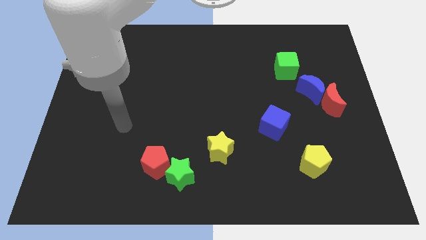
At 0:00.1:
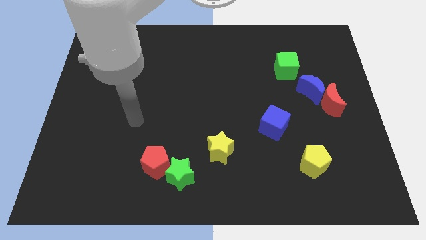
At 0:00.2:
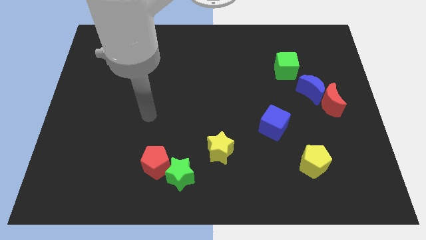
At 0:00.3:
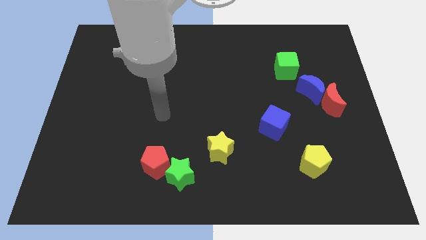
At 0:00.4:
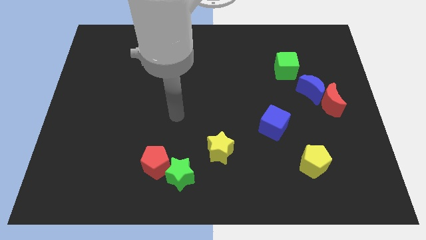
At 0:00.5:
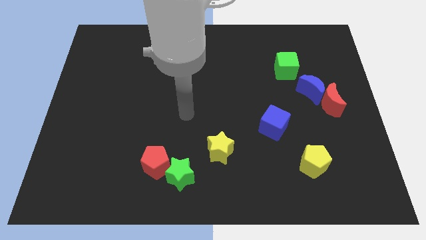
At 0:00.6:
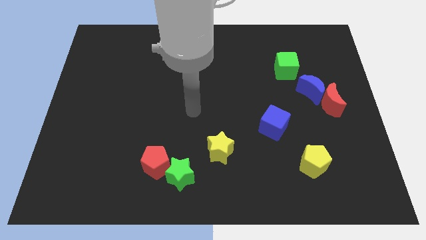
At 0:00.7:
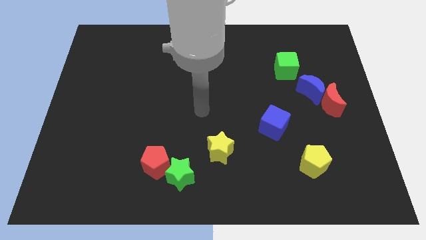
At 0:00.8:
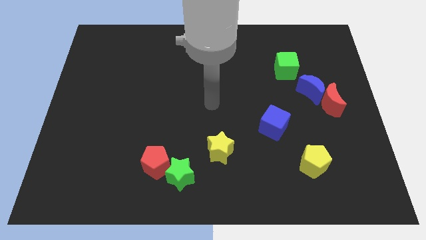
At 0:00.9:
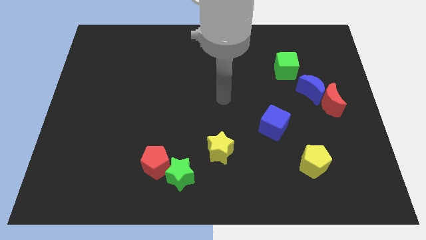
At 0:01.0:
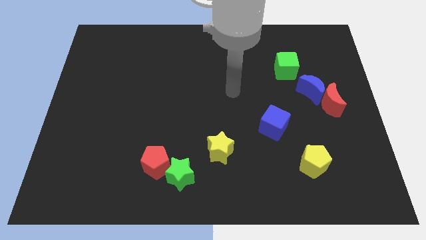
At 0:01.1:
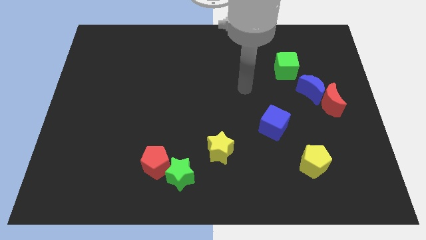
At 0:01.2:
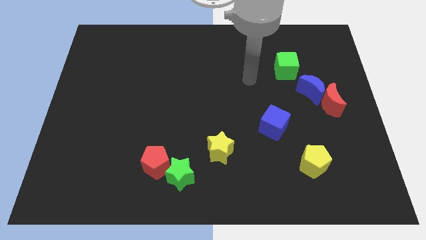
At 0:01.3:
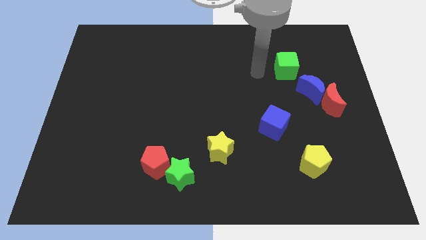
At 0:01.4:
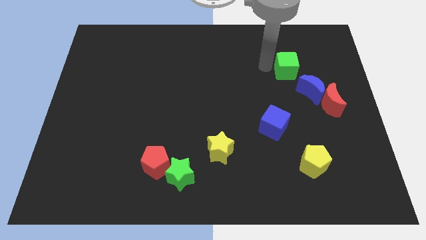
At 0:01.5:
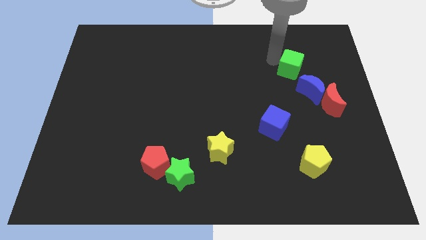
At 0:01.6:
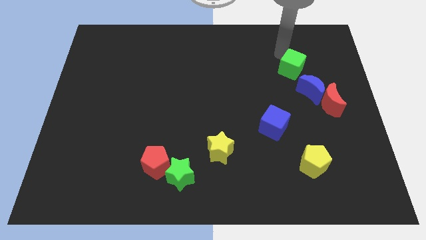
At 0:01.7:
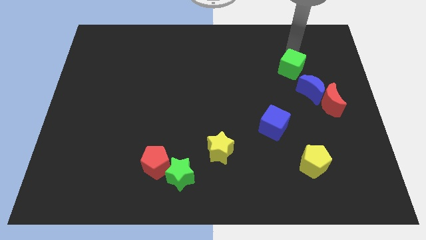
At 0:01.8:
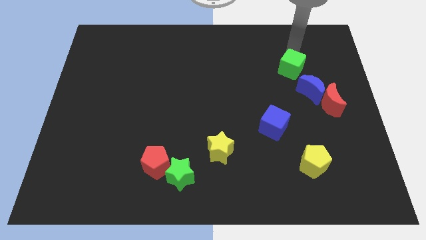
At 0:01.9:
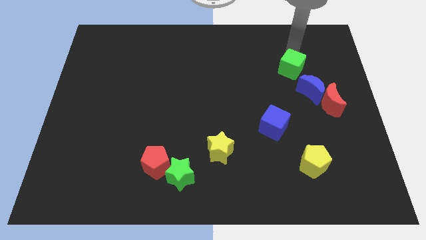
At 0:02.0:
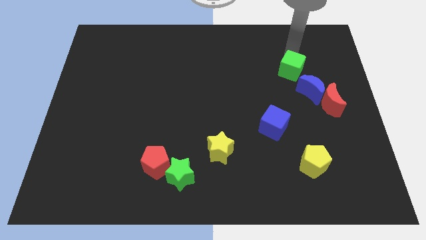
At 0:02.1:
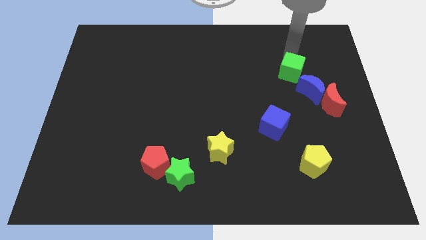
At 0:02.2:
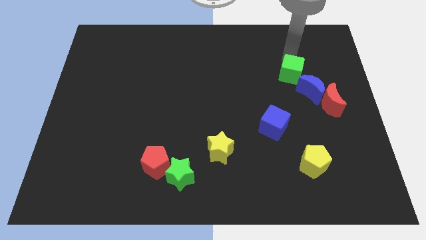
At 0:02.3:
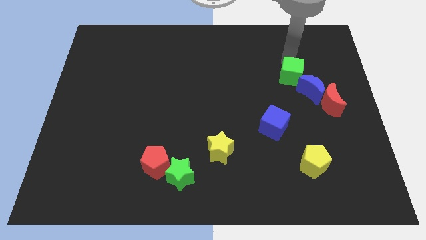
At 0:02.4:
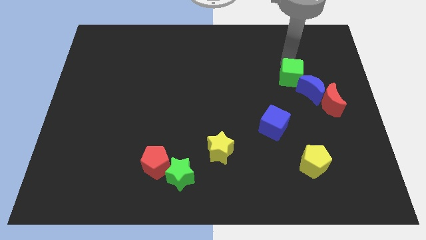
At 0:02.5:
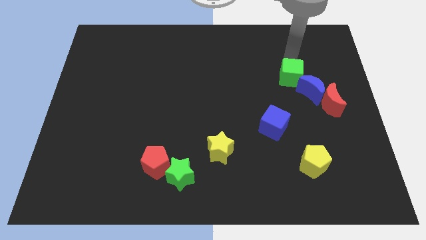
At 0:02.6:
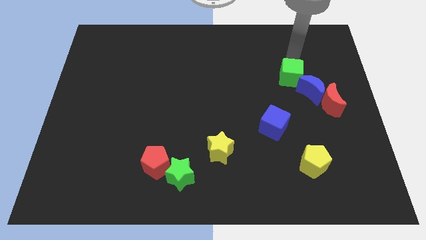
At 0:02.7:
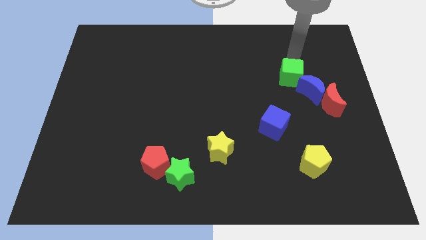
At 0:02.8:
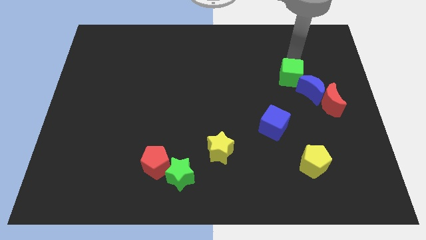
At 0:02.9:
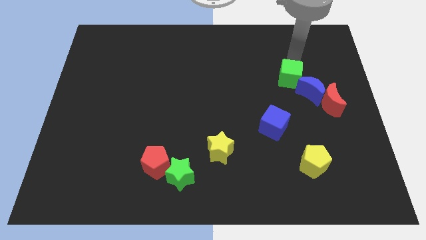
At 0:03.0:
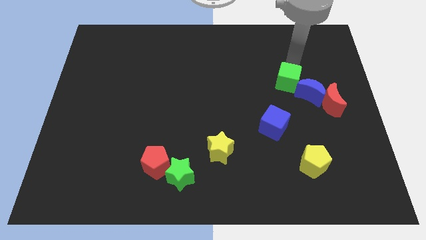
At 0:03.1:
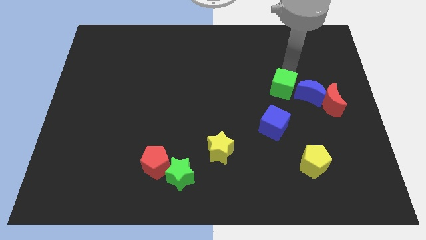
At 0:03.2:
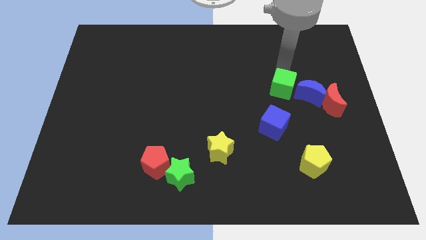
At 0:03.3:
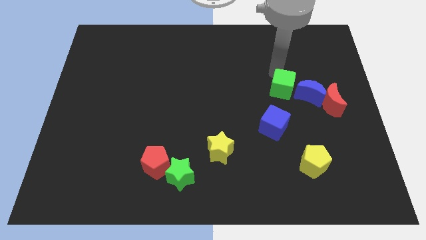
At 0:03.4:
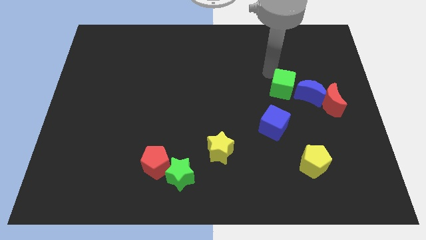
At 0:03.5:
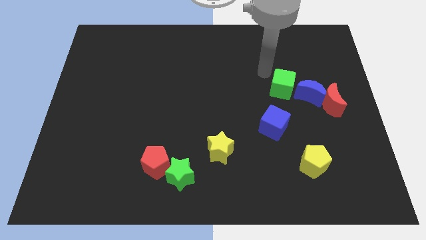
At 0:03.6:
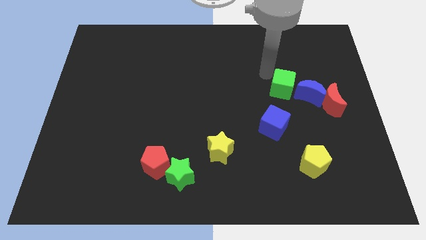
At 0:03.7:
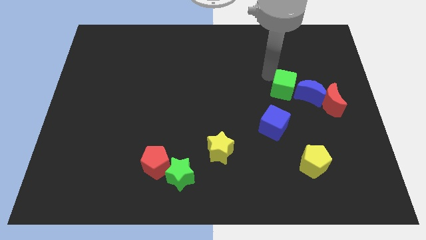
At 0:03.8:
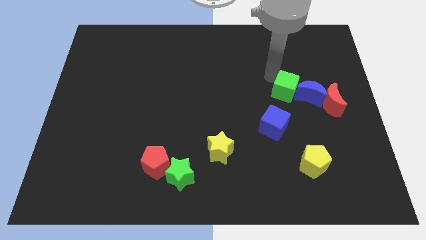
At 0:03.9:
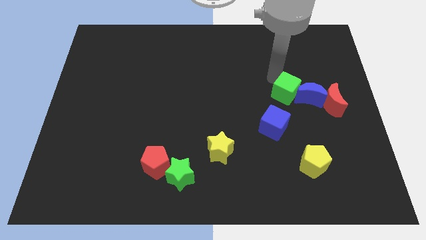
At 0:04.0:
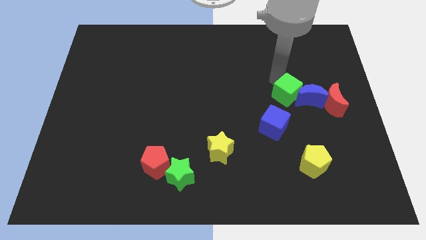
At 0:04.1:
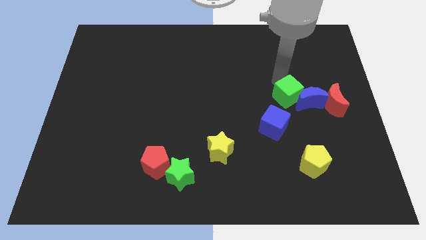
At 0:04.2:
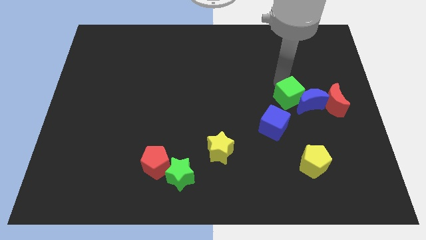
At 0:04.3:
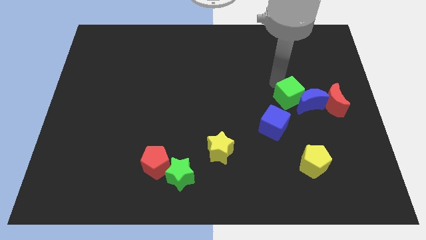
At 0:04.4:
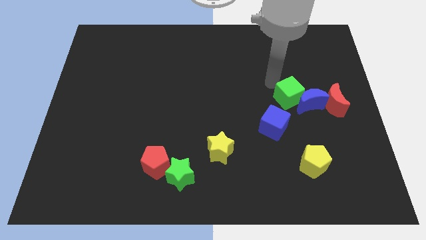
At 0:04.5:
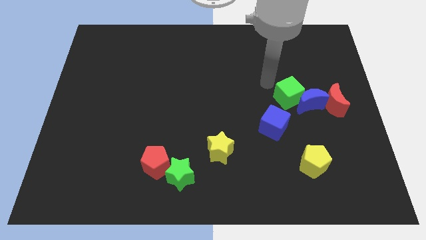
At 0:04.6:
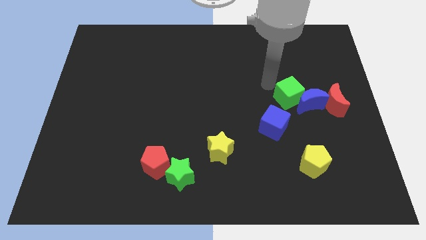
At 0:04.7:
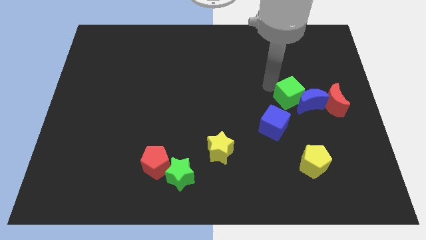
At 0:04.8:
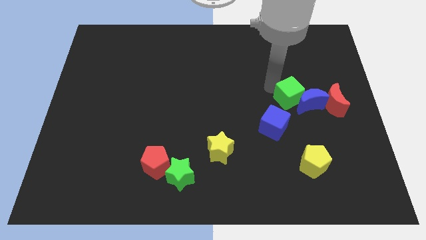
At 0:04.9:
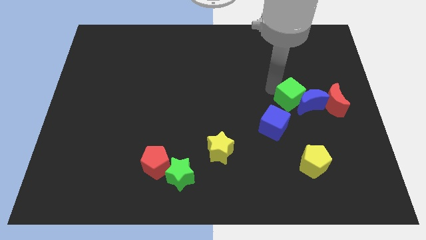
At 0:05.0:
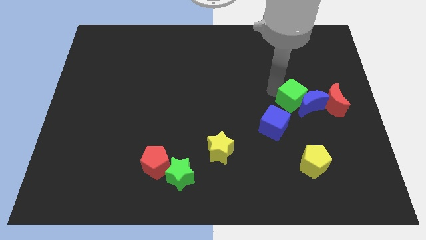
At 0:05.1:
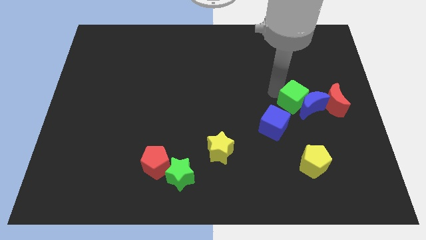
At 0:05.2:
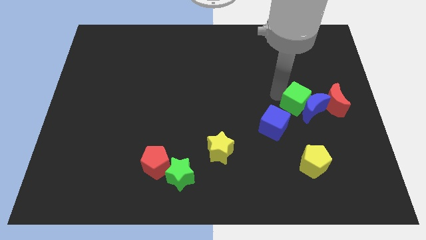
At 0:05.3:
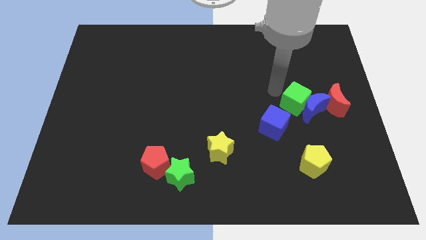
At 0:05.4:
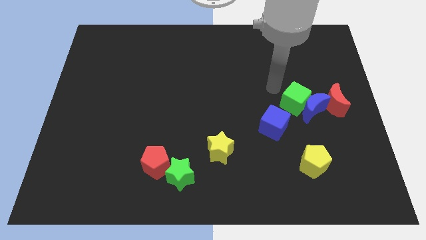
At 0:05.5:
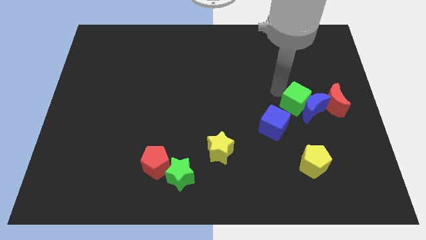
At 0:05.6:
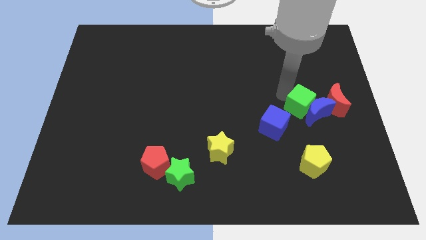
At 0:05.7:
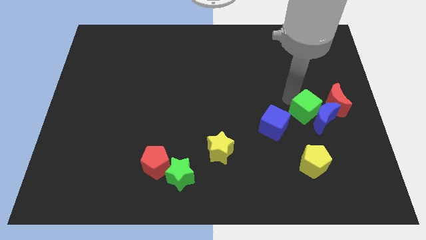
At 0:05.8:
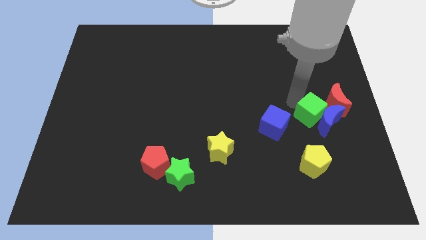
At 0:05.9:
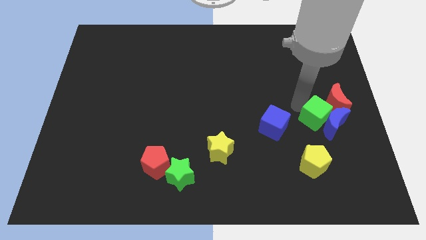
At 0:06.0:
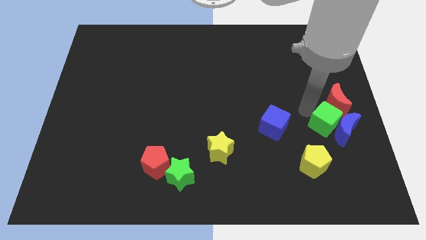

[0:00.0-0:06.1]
move the green cube to the bottom of the red moon

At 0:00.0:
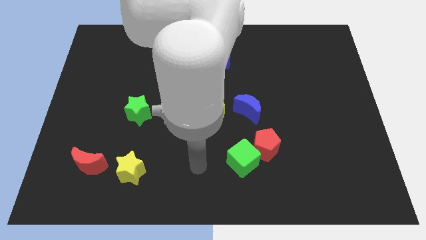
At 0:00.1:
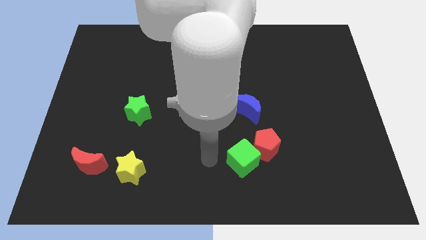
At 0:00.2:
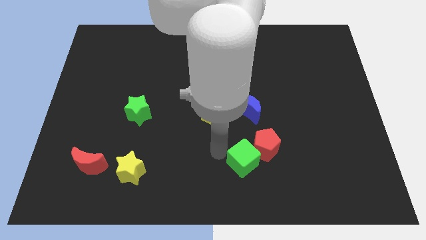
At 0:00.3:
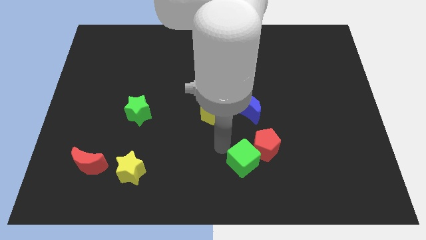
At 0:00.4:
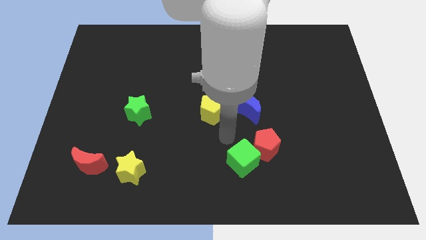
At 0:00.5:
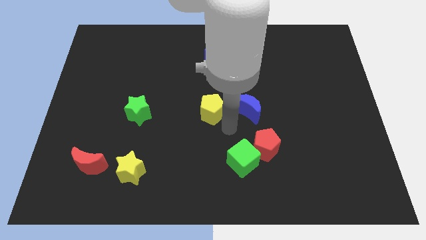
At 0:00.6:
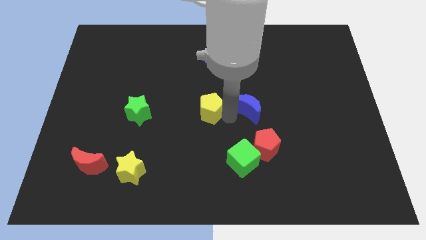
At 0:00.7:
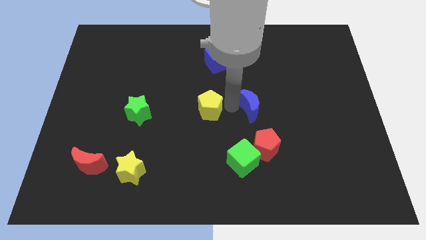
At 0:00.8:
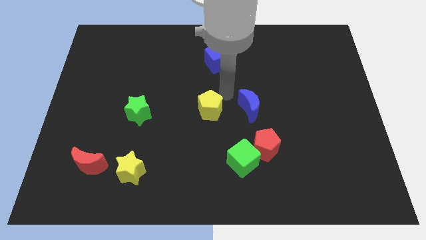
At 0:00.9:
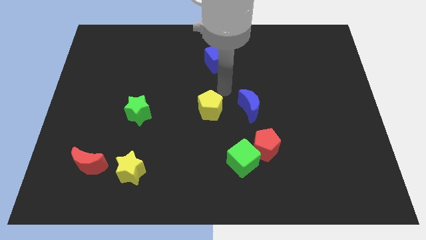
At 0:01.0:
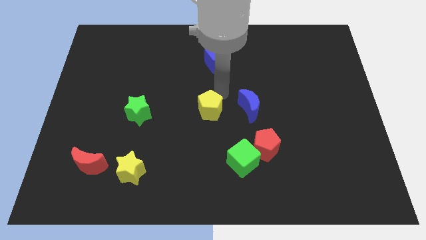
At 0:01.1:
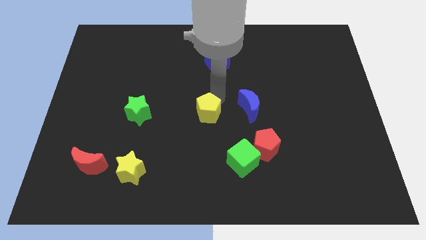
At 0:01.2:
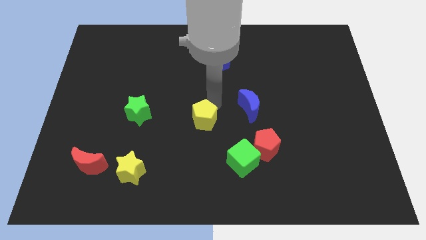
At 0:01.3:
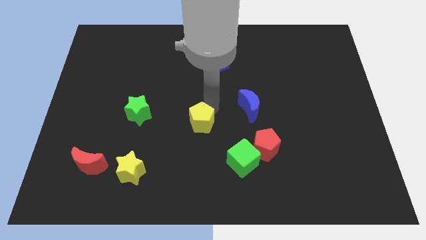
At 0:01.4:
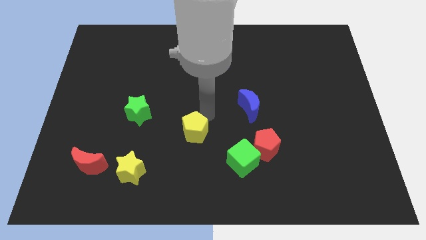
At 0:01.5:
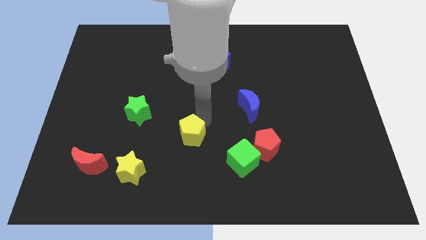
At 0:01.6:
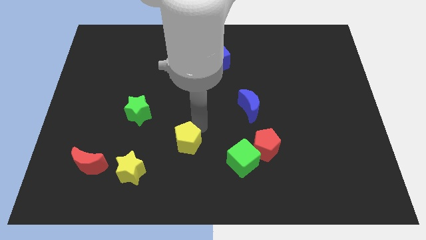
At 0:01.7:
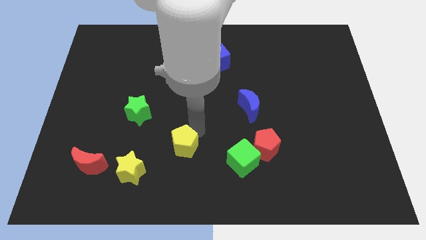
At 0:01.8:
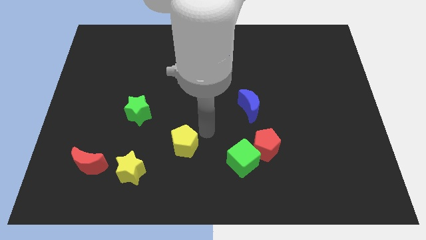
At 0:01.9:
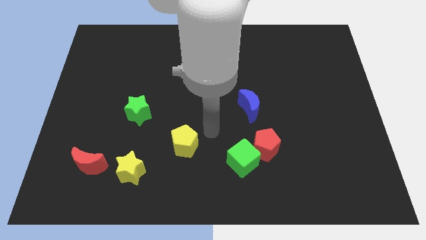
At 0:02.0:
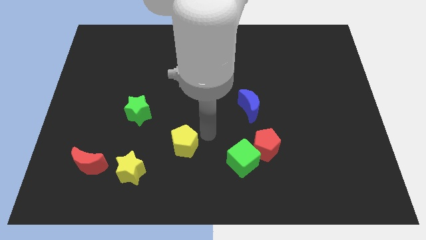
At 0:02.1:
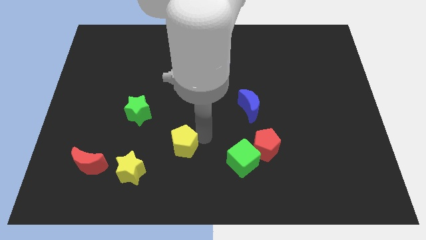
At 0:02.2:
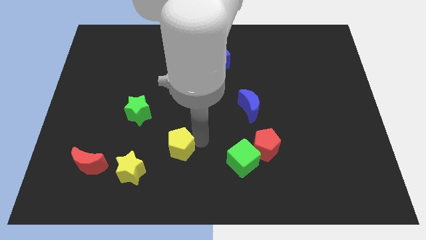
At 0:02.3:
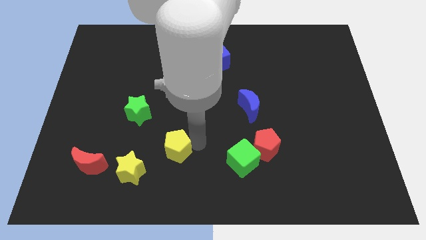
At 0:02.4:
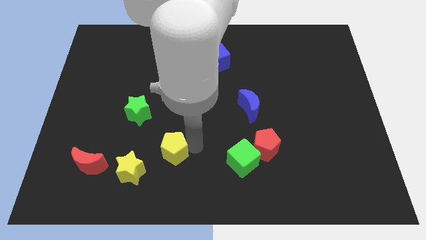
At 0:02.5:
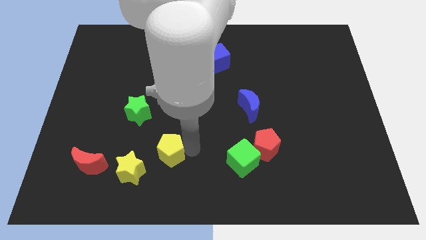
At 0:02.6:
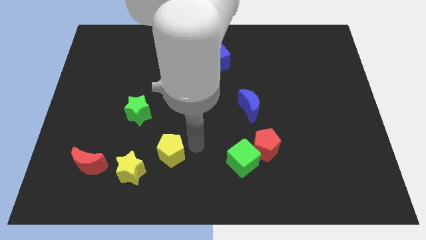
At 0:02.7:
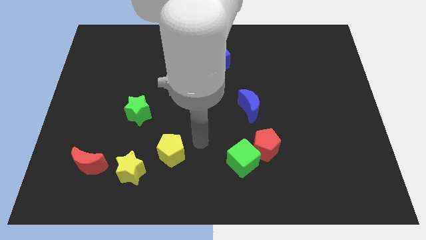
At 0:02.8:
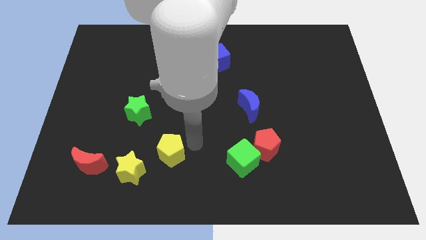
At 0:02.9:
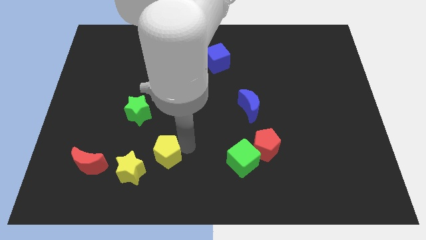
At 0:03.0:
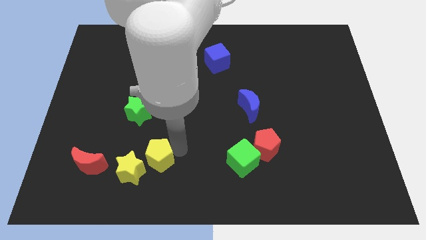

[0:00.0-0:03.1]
slide the yellow pentagon to the right of the red moon
